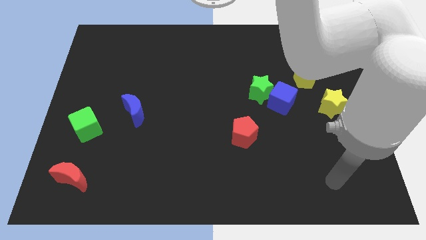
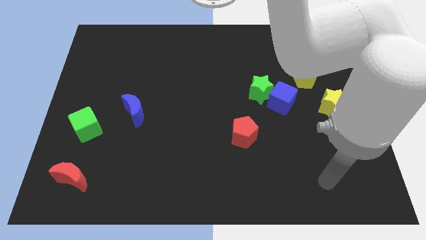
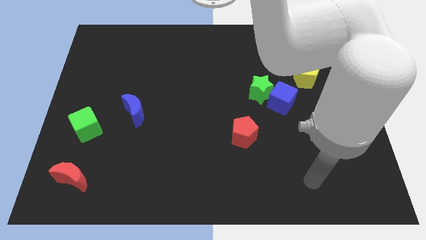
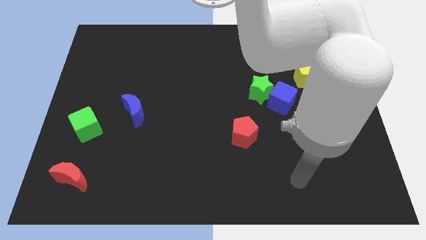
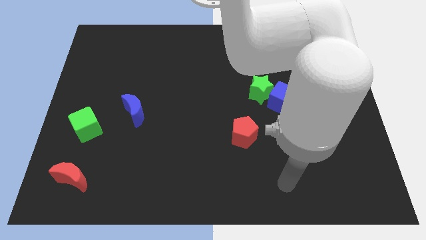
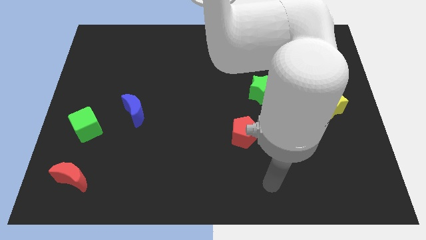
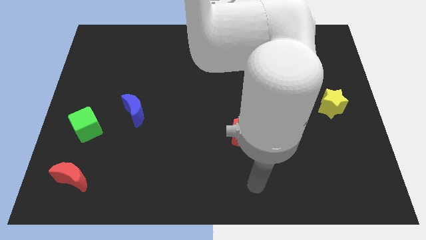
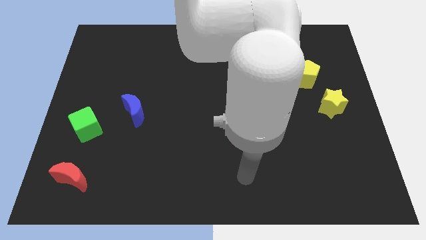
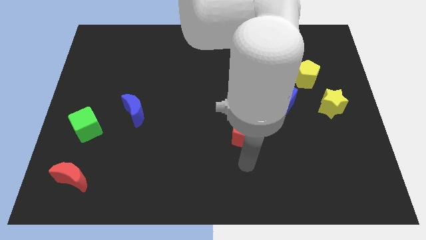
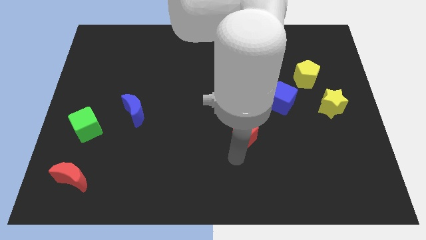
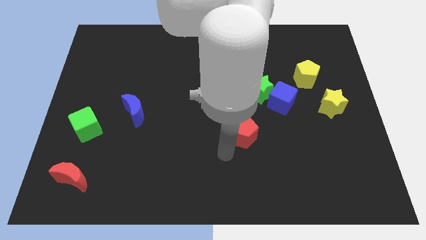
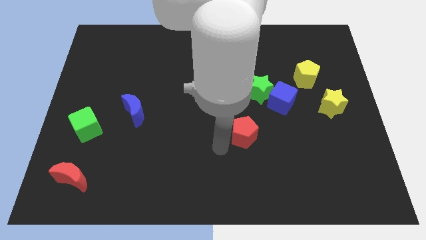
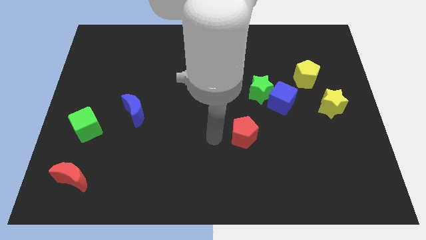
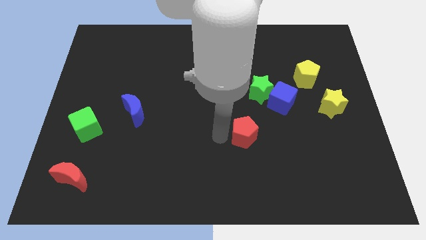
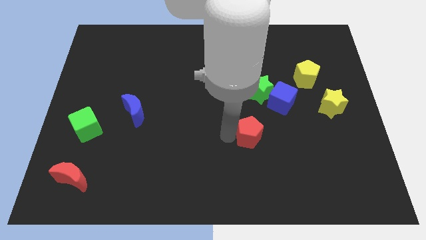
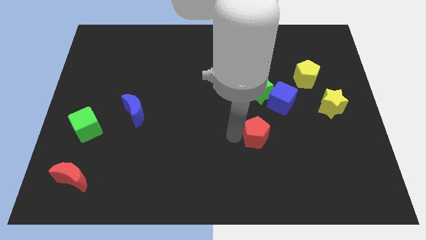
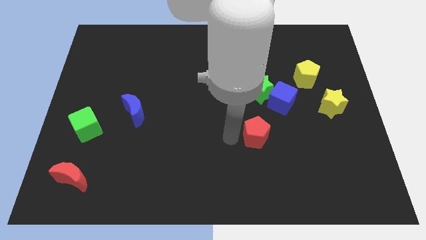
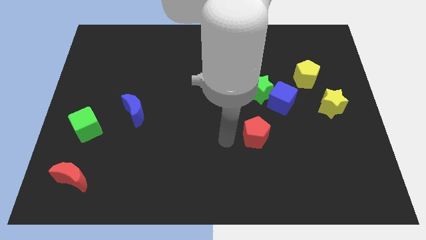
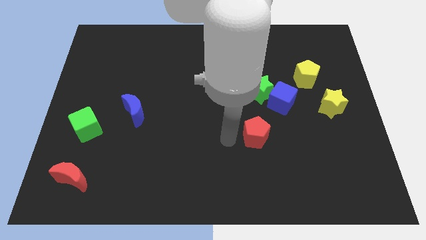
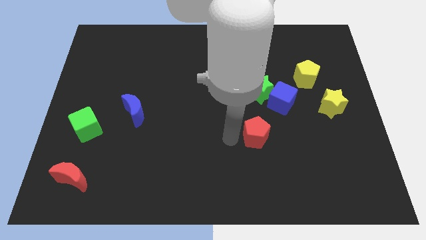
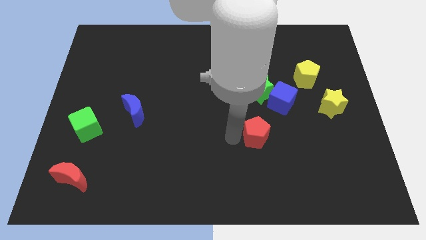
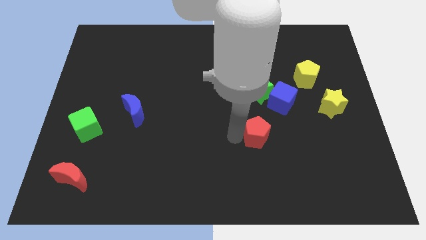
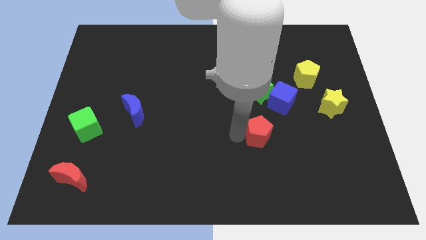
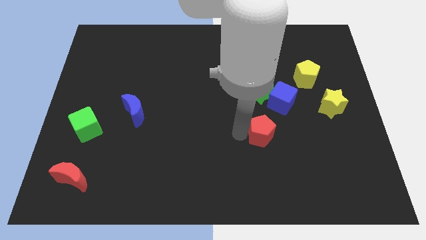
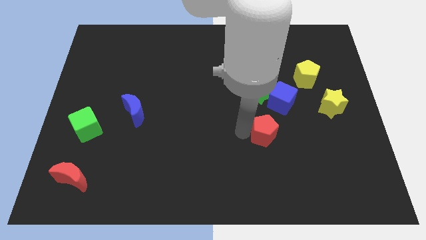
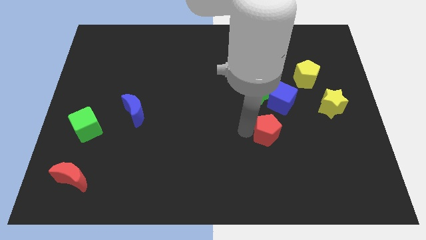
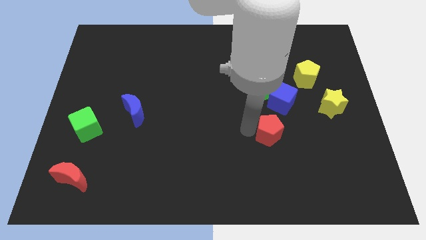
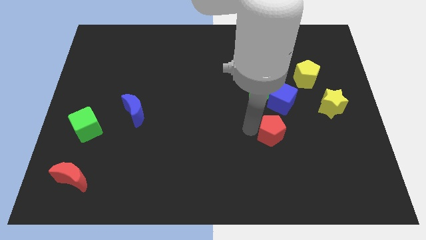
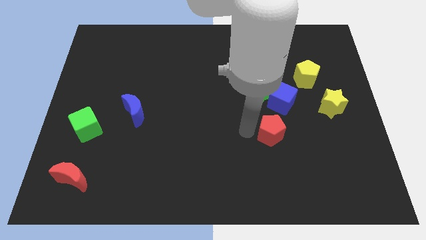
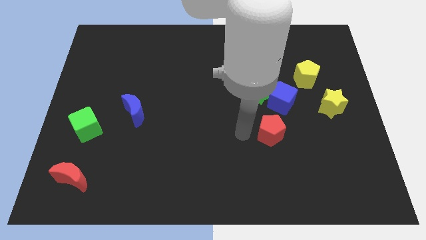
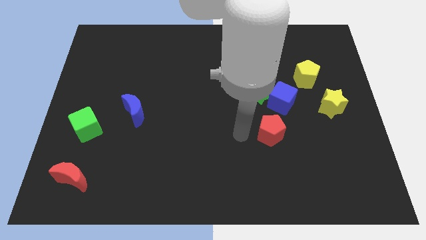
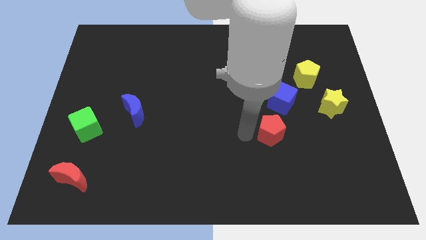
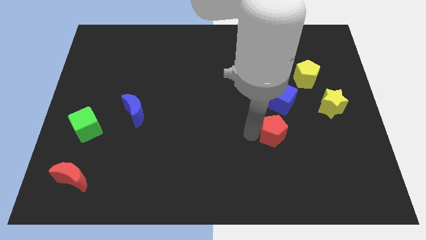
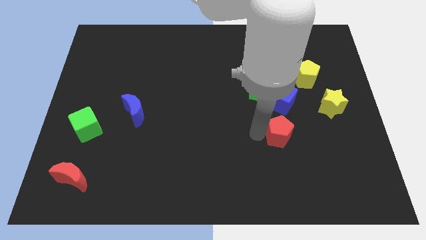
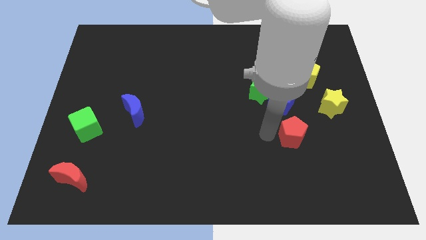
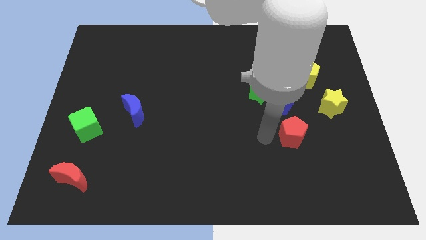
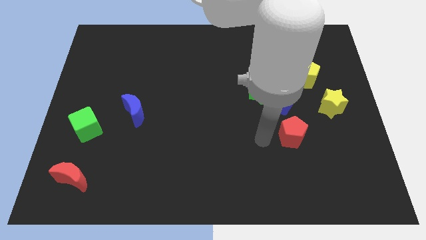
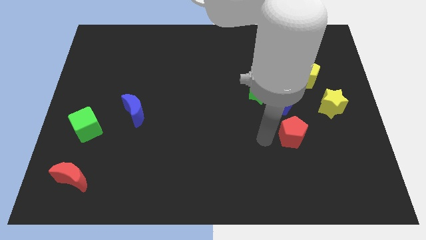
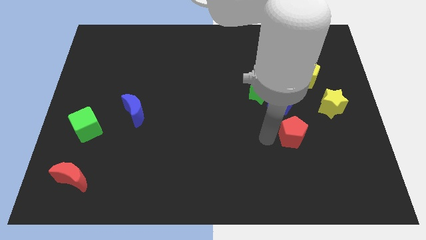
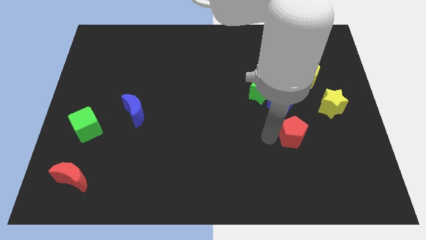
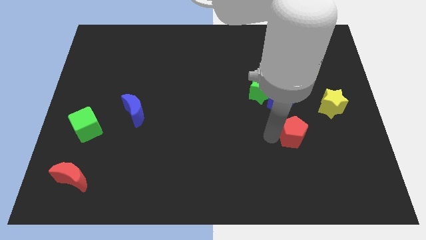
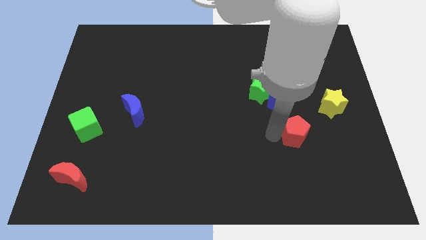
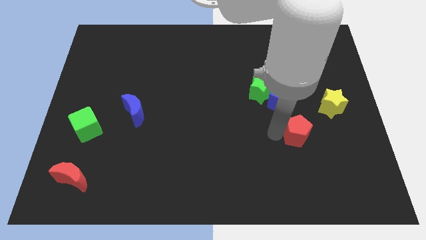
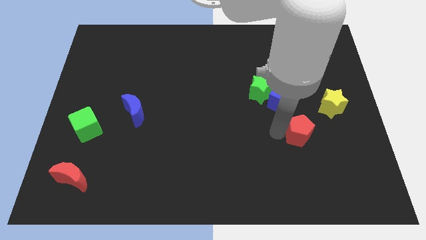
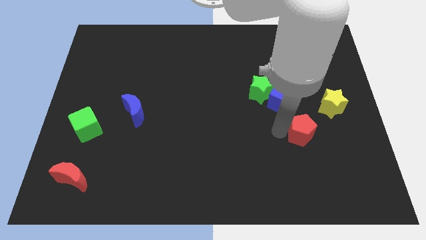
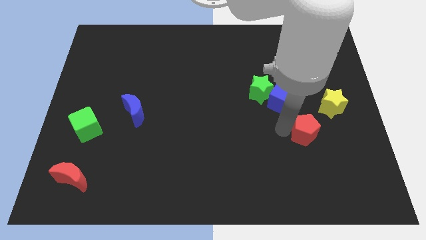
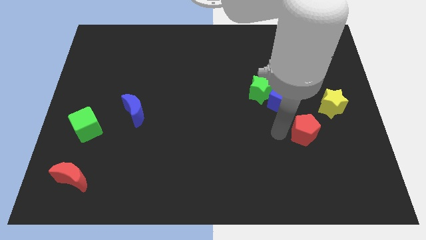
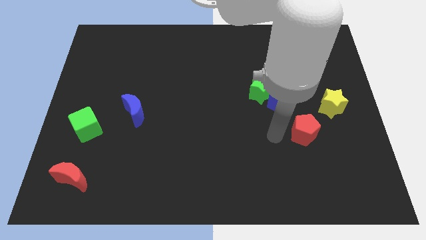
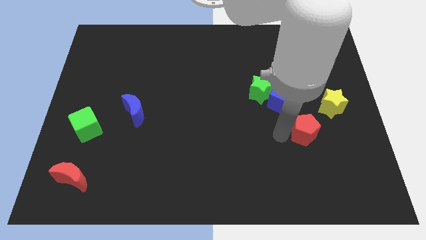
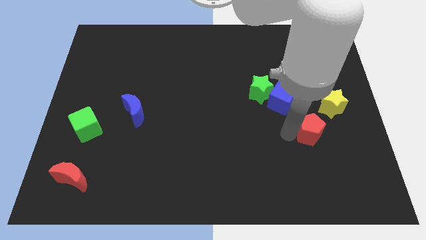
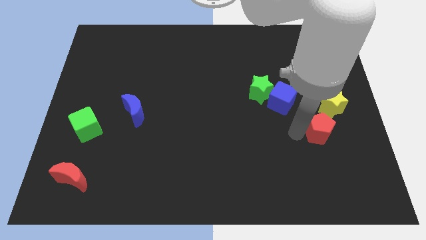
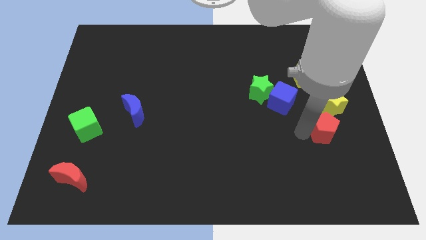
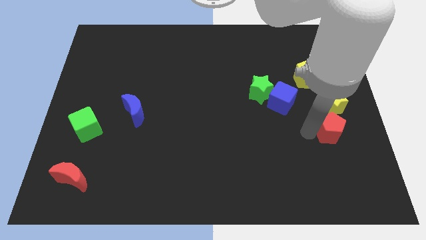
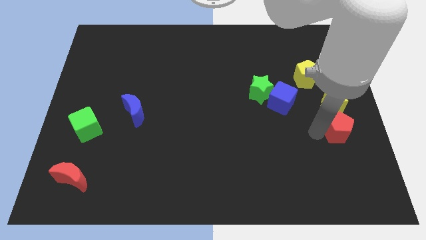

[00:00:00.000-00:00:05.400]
move the red pentagon to the center right

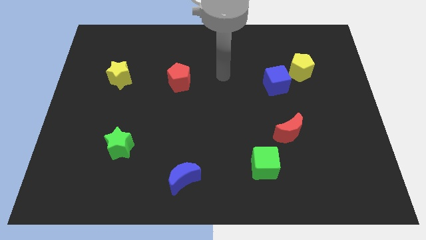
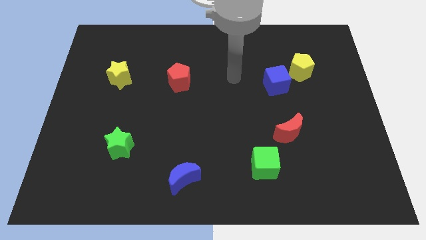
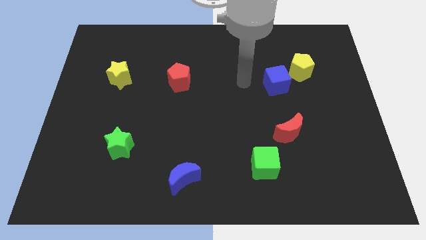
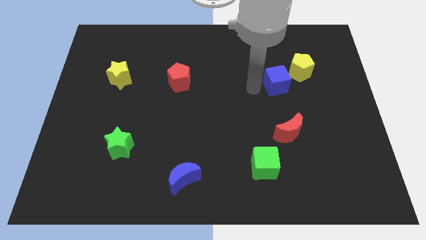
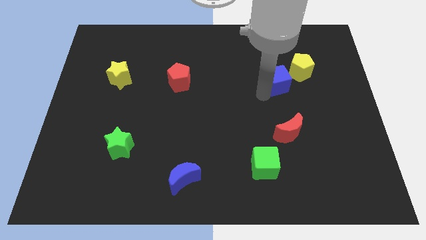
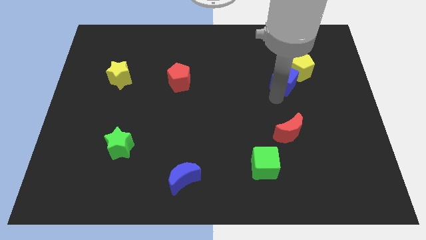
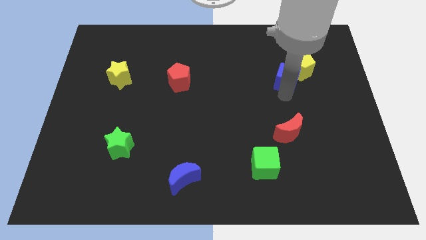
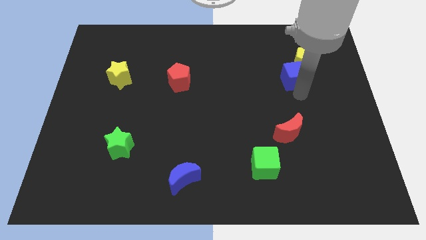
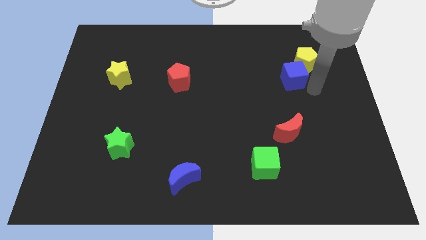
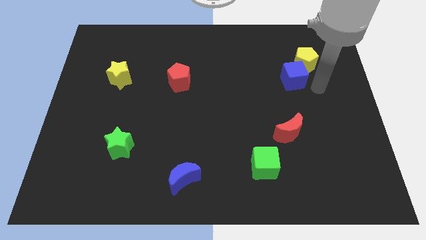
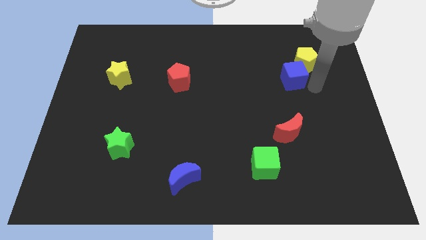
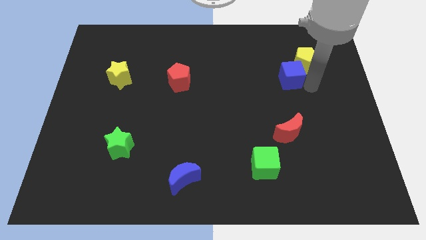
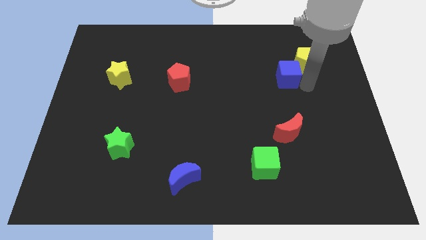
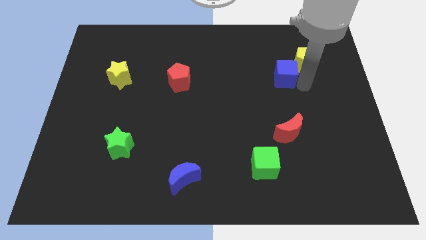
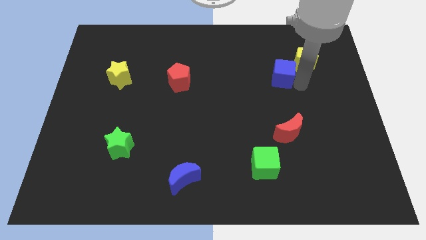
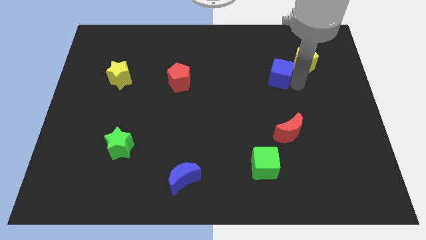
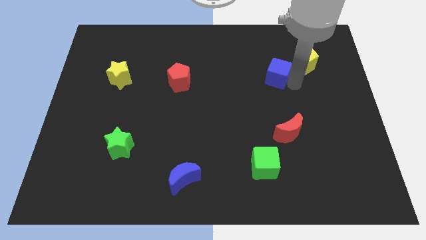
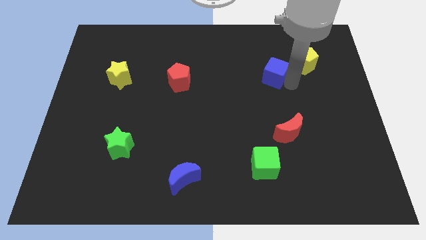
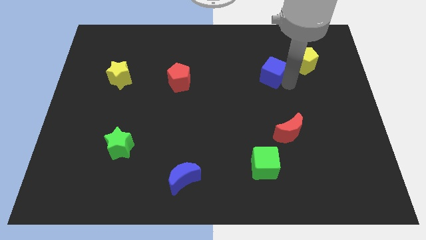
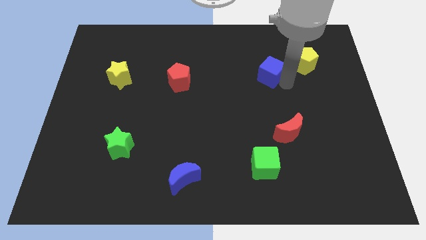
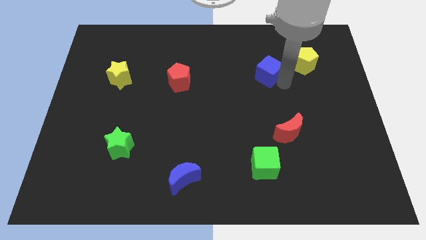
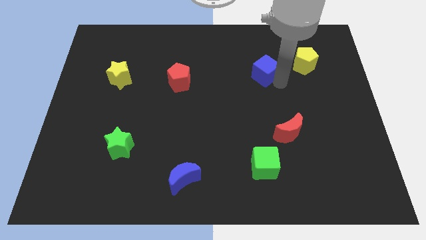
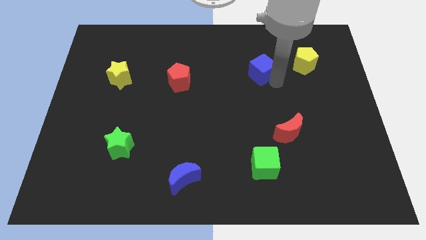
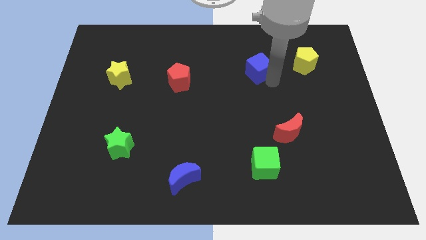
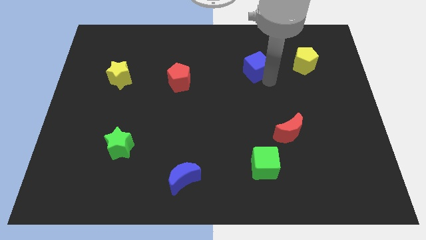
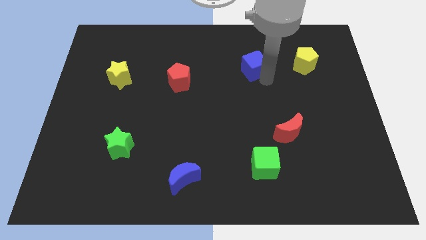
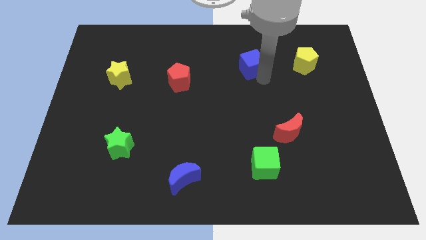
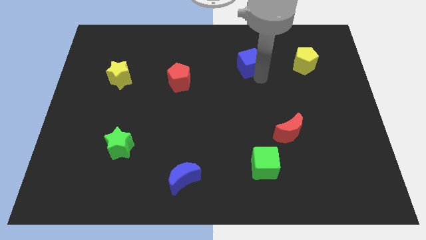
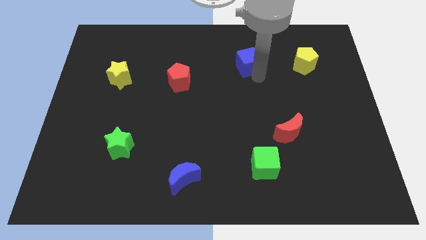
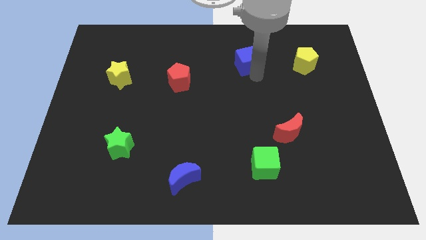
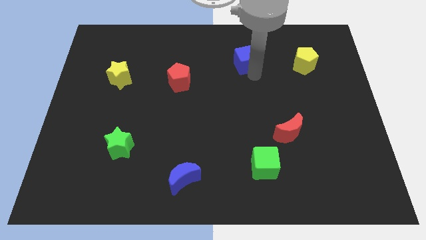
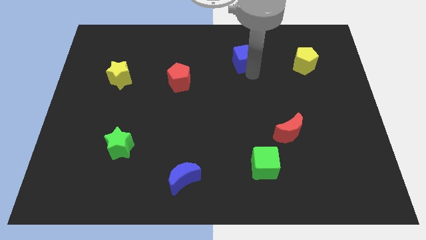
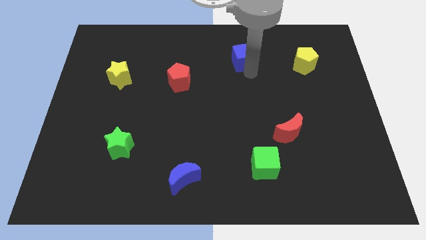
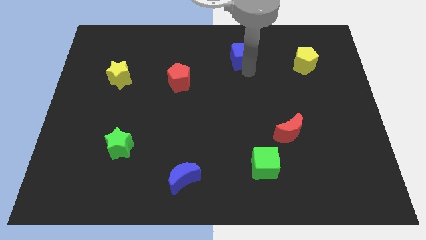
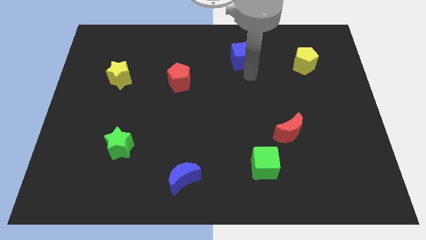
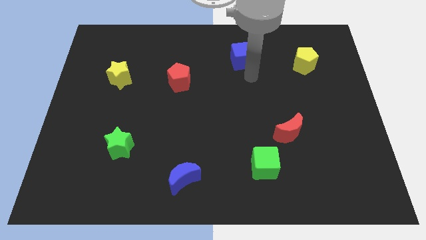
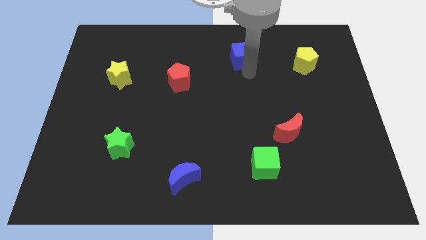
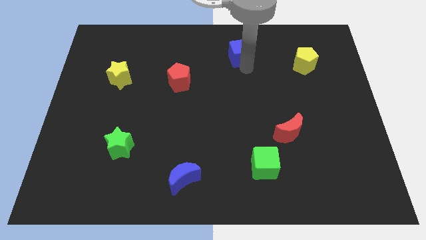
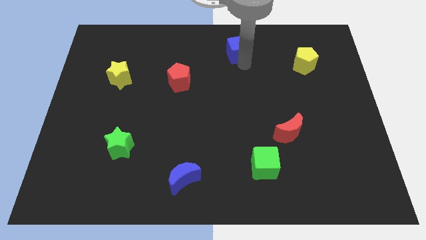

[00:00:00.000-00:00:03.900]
push the blue cube to the top
